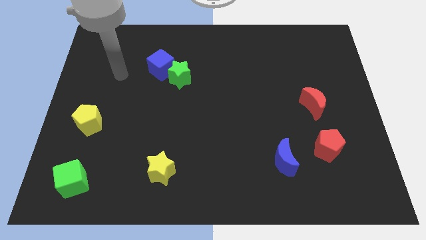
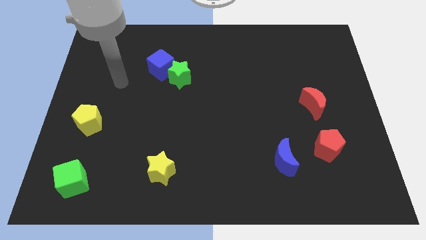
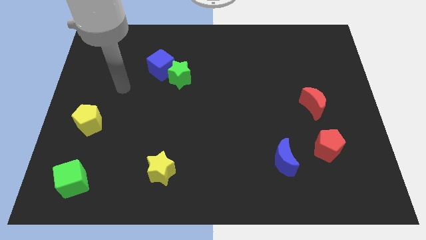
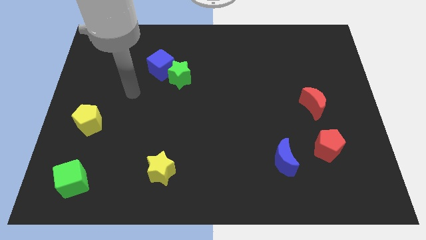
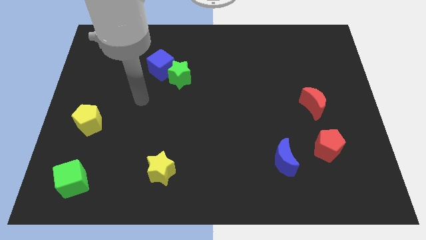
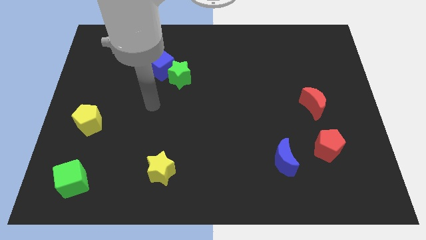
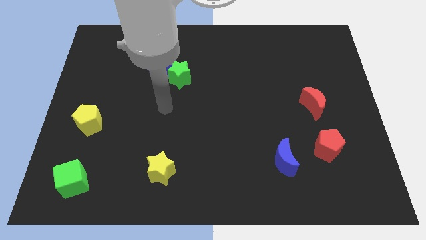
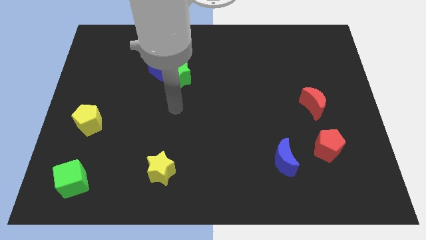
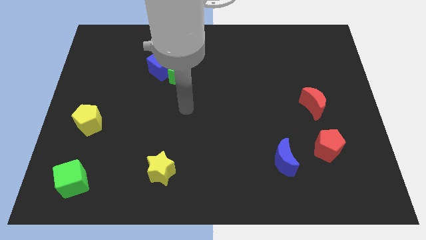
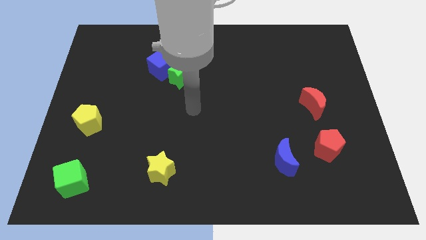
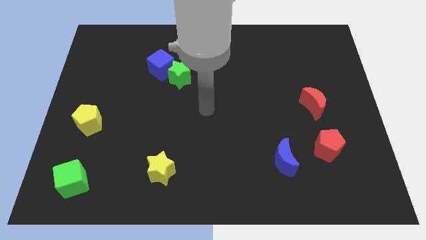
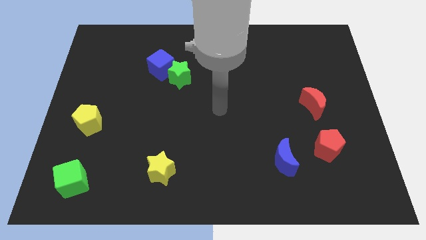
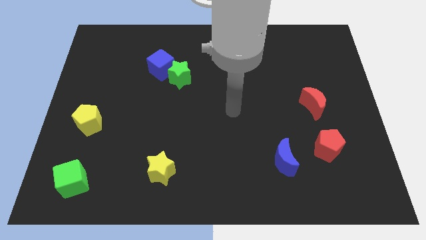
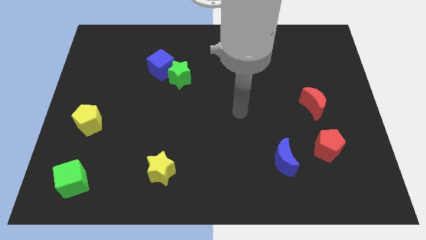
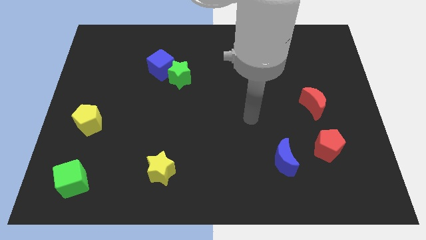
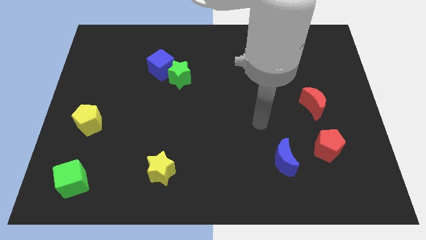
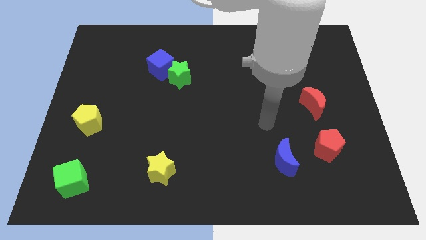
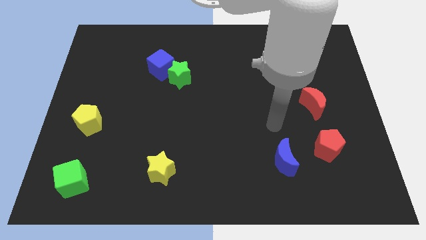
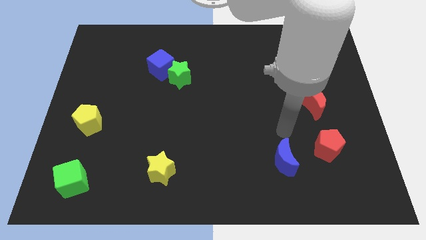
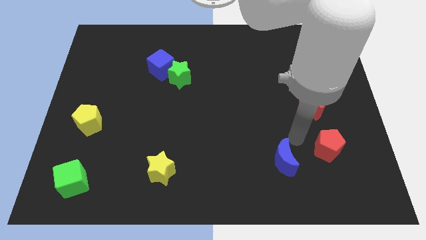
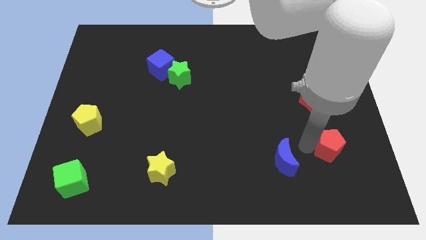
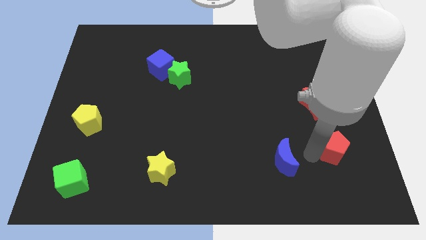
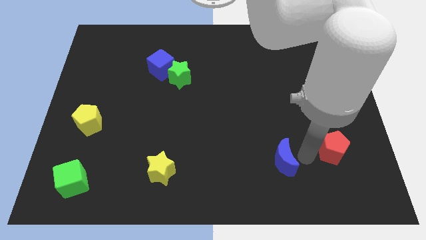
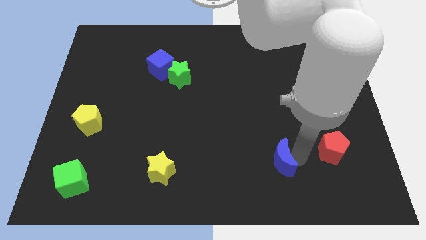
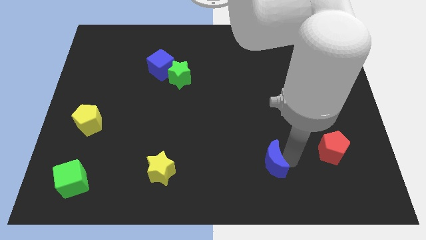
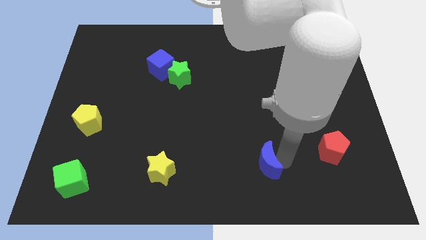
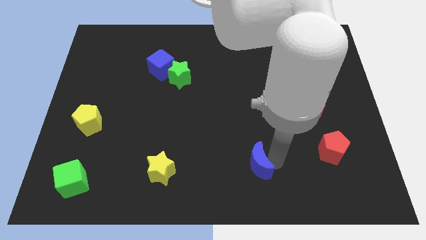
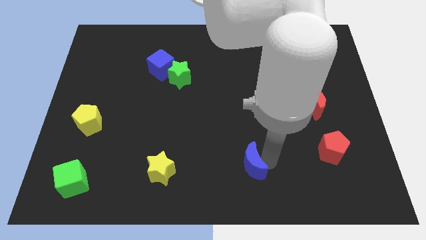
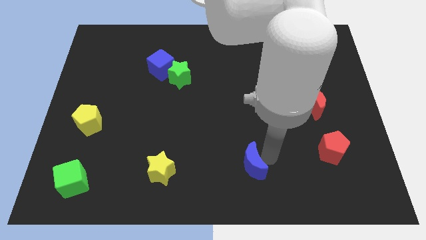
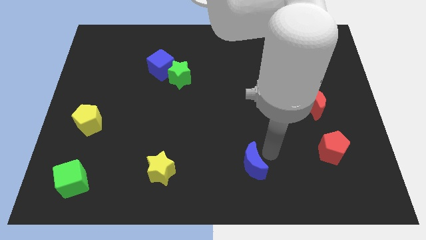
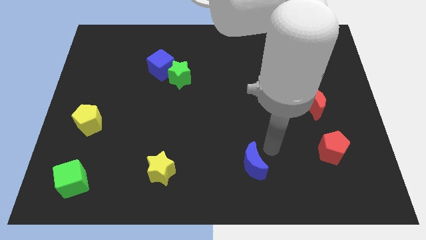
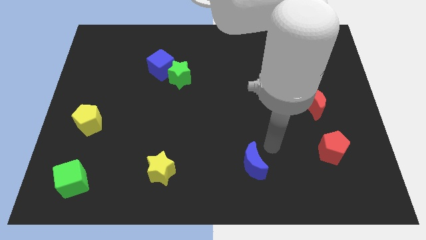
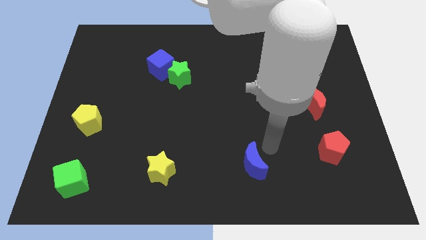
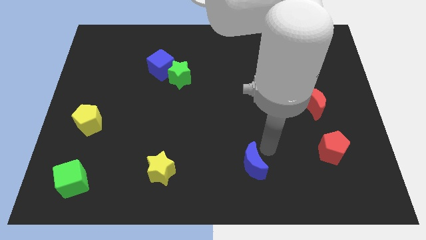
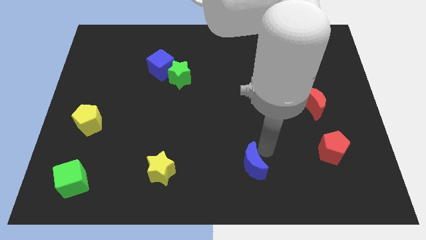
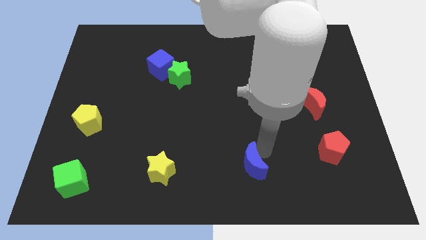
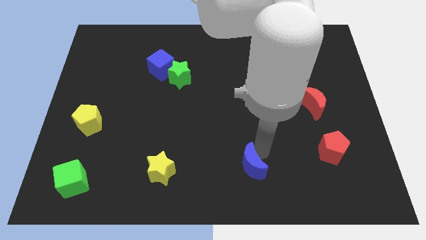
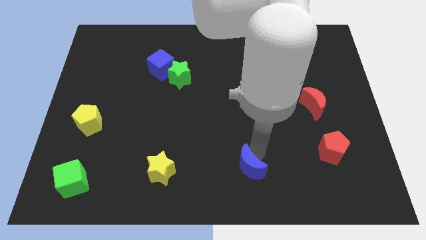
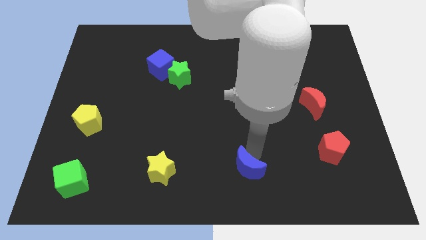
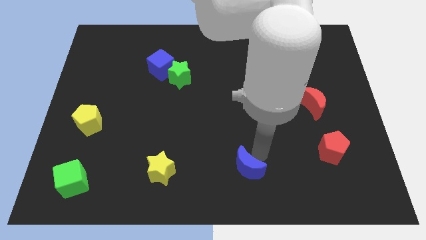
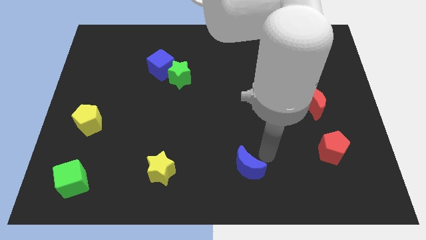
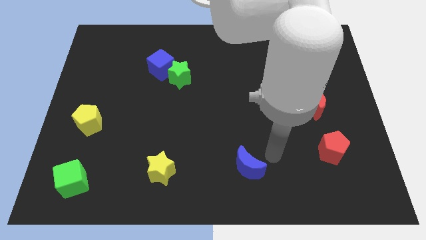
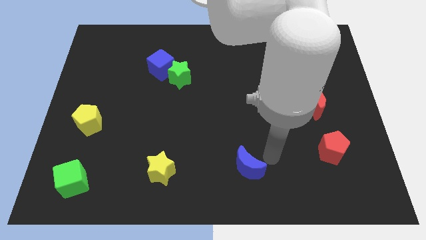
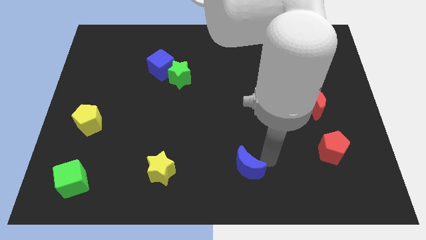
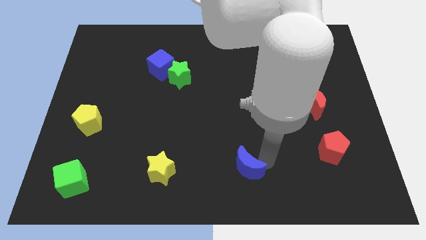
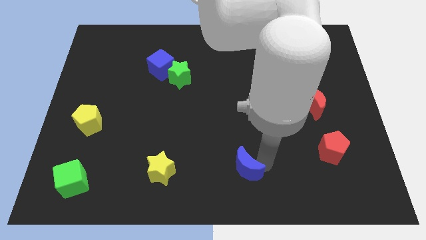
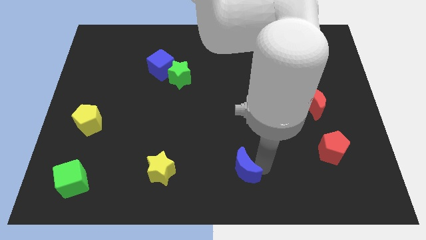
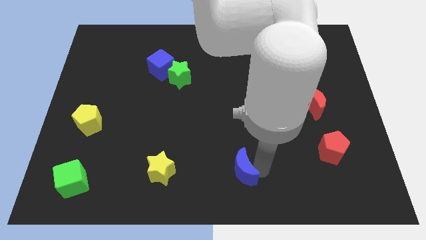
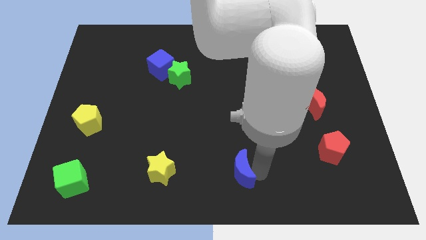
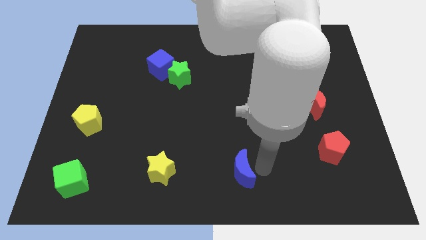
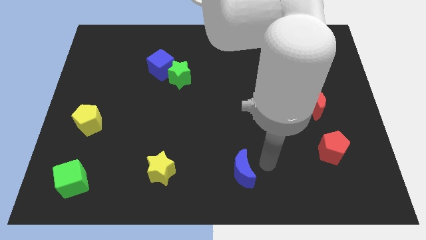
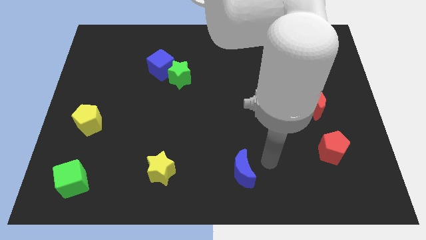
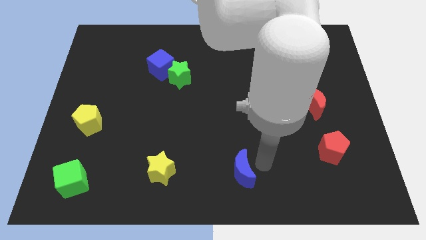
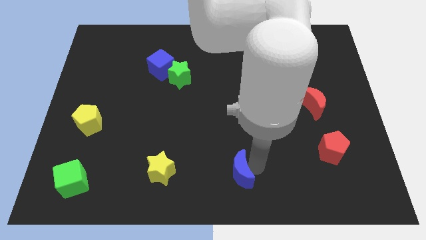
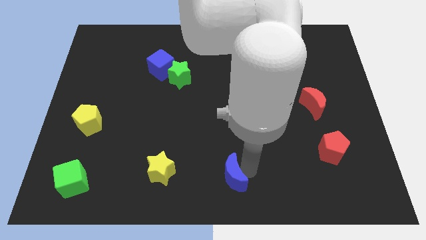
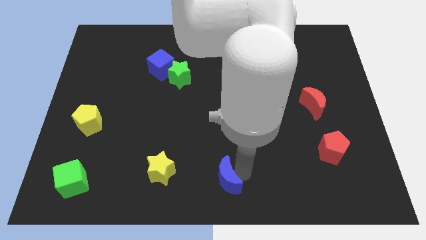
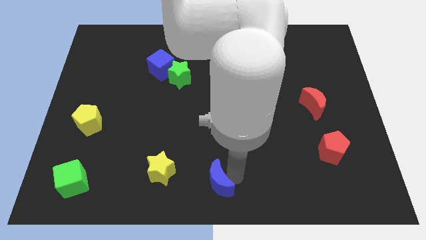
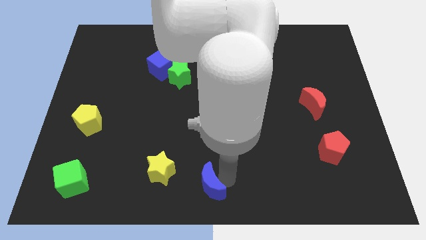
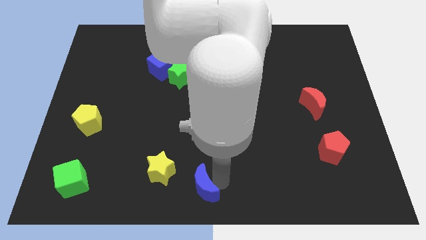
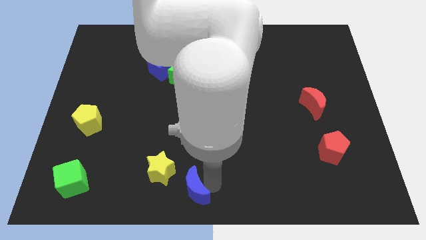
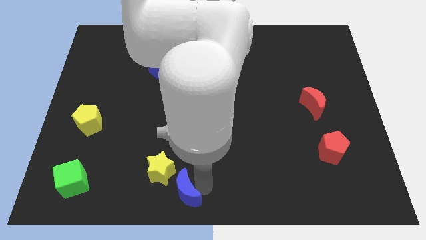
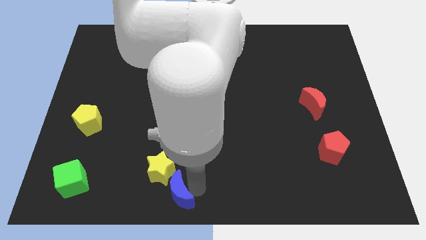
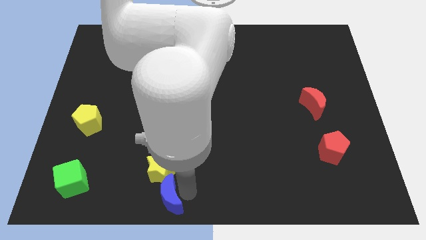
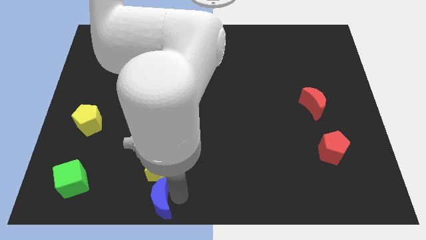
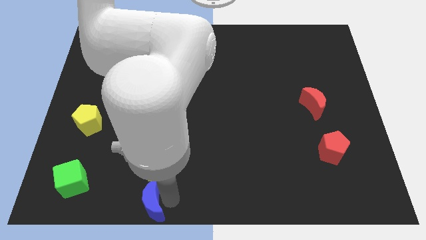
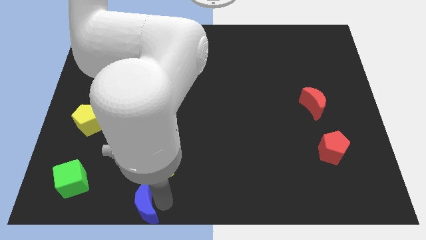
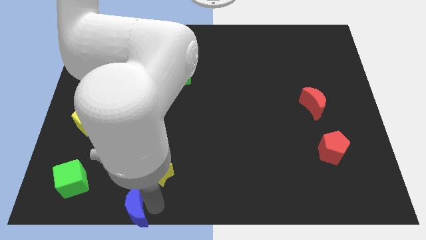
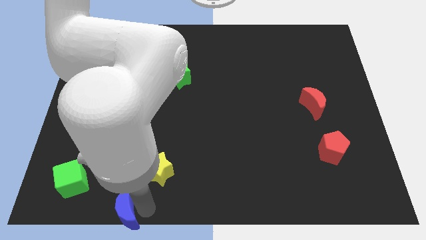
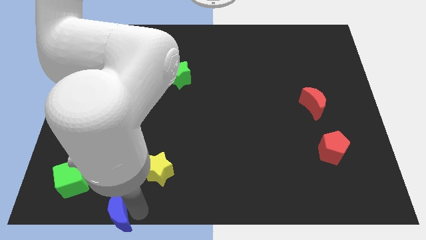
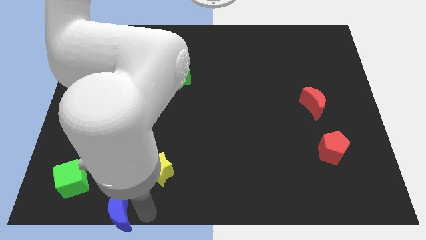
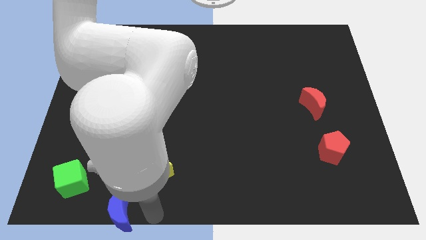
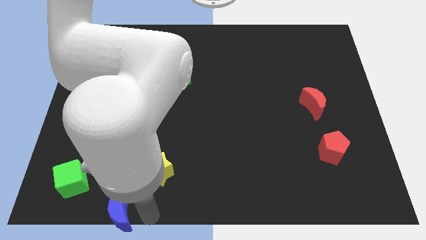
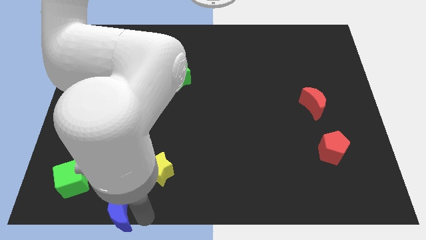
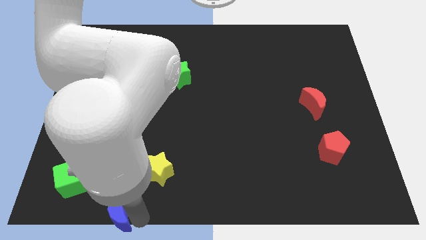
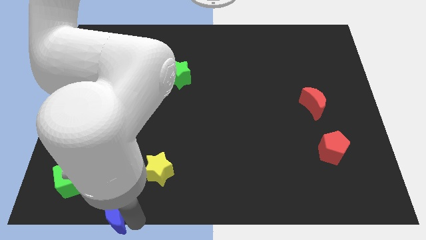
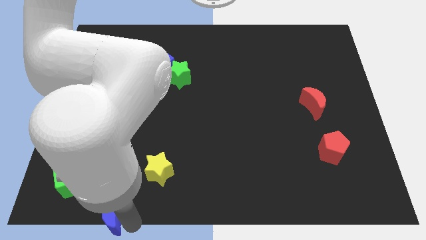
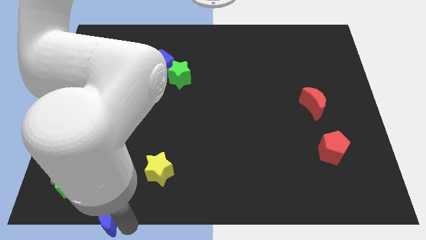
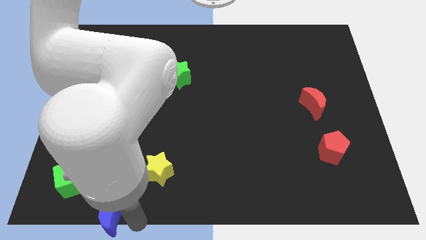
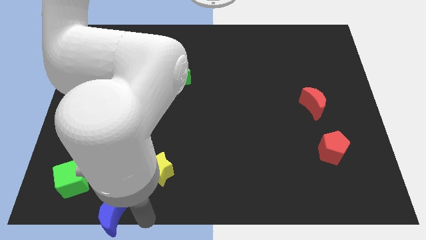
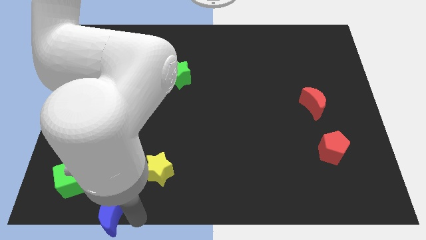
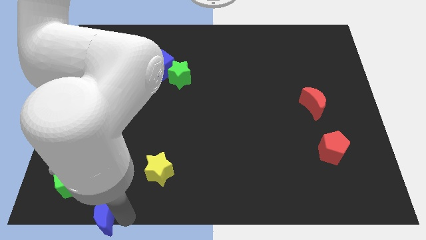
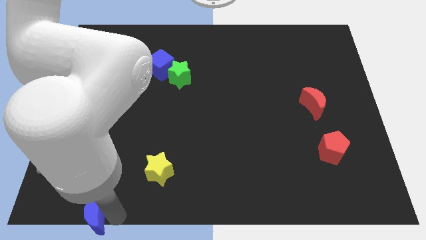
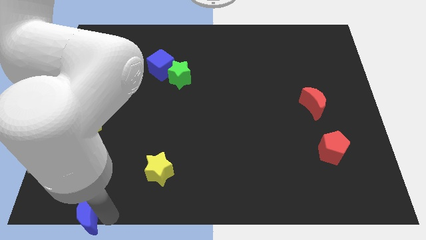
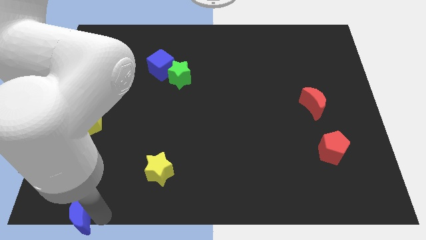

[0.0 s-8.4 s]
slide the blue moon to the bottom left corner
